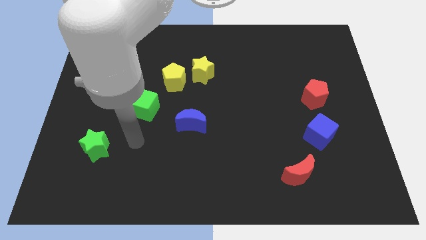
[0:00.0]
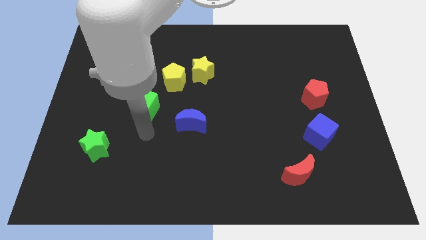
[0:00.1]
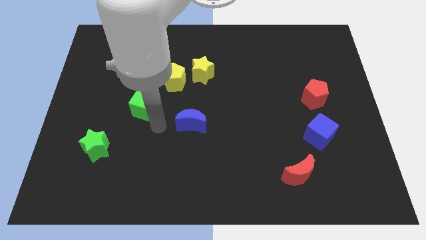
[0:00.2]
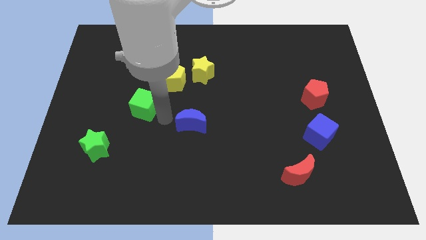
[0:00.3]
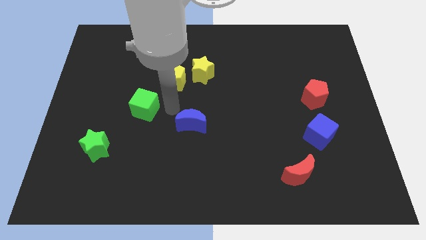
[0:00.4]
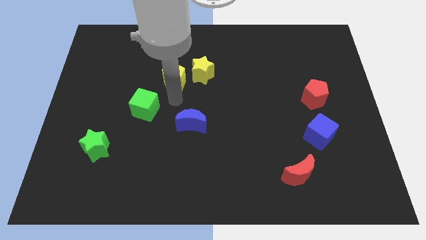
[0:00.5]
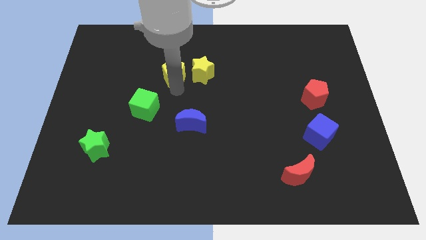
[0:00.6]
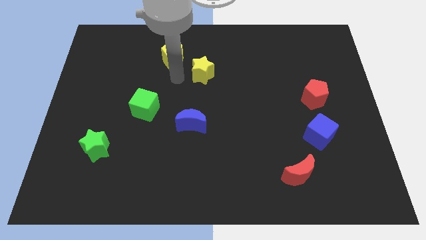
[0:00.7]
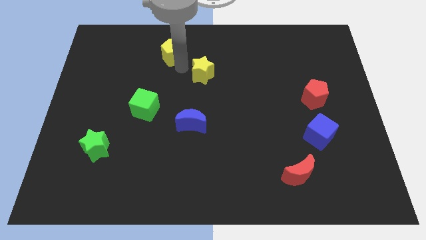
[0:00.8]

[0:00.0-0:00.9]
move the yellow star away from the yellow pentagon

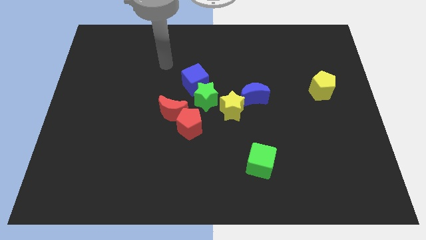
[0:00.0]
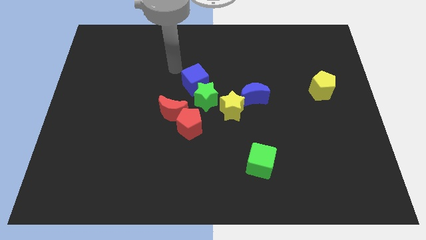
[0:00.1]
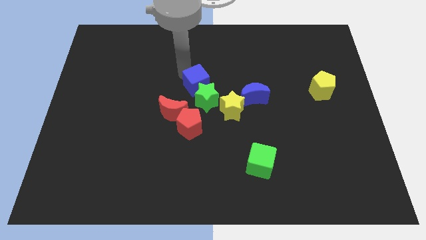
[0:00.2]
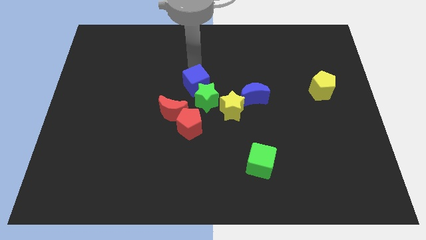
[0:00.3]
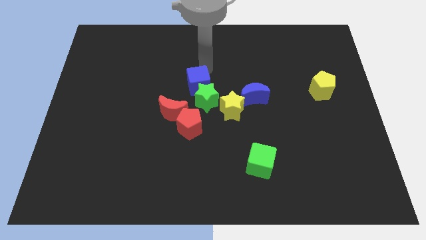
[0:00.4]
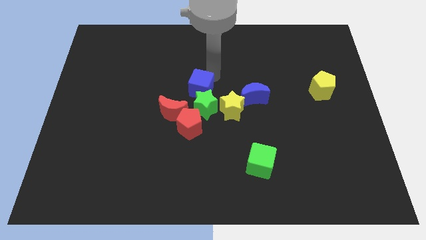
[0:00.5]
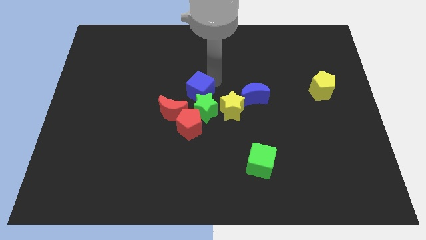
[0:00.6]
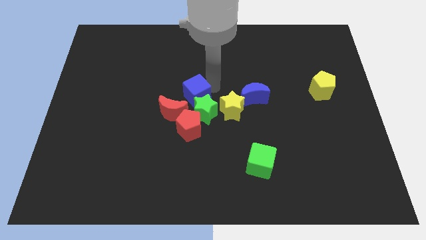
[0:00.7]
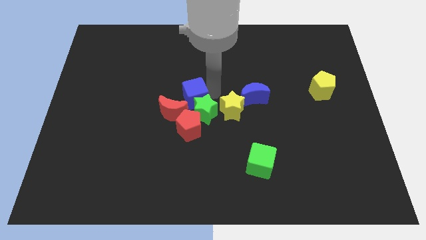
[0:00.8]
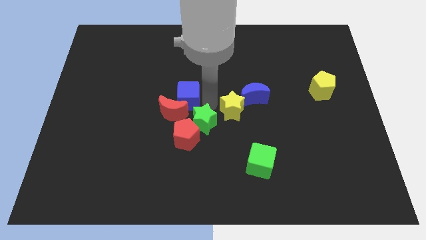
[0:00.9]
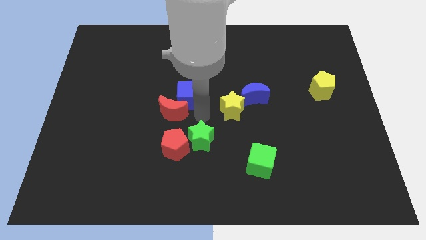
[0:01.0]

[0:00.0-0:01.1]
move the blue cube away from the green star

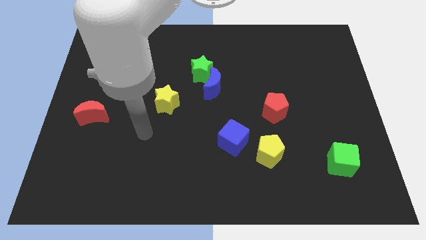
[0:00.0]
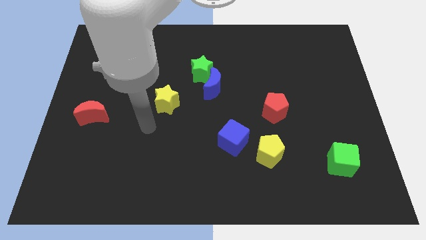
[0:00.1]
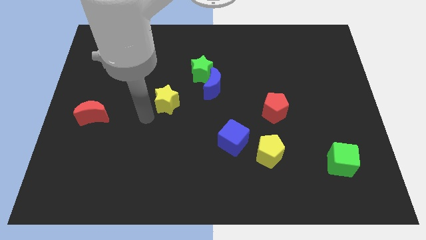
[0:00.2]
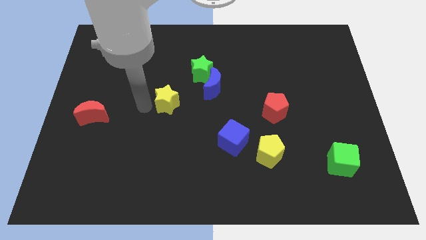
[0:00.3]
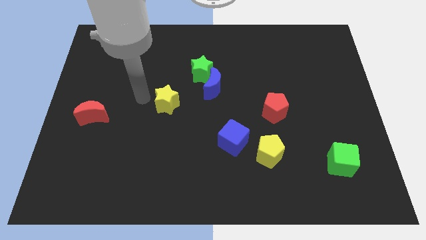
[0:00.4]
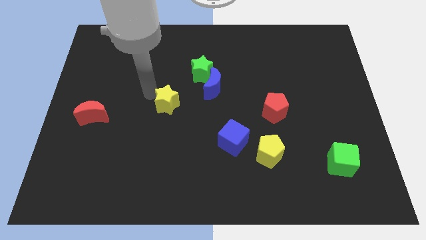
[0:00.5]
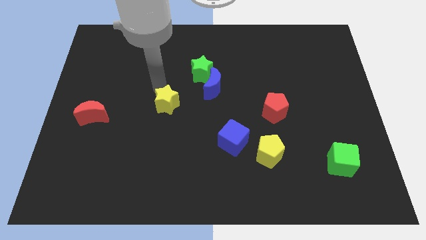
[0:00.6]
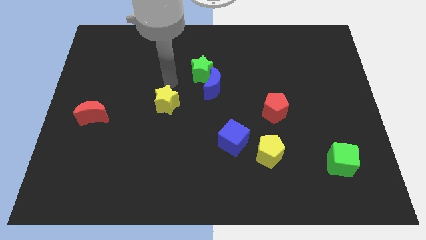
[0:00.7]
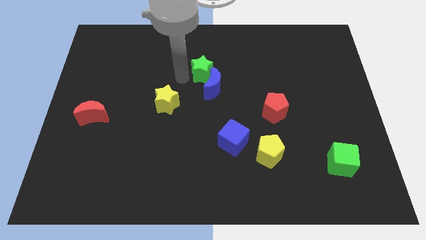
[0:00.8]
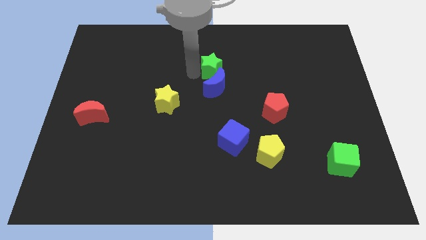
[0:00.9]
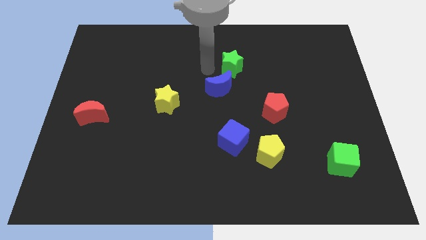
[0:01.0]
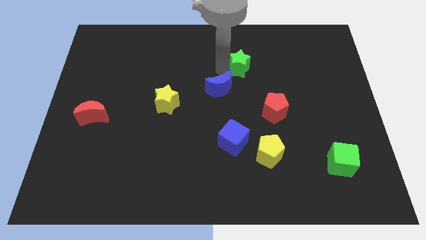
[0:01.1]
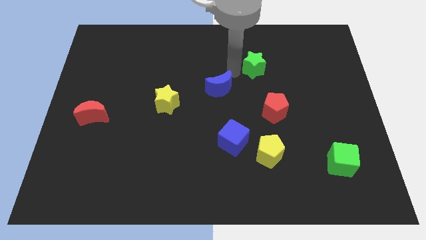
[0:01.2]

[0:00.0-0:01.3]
pull the blue moon apart from the green star

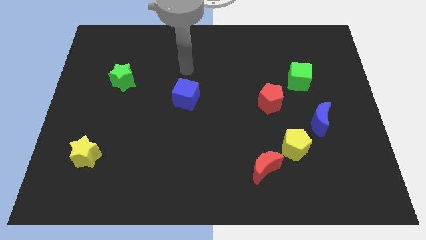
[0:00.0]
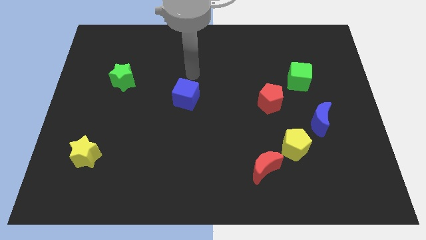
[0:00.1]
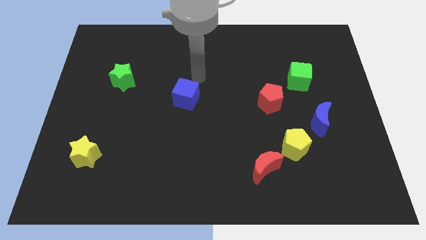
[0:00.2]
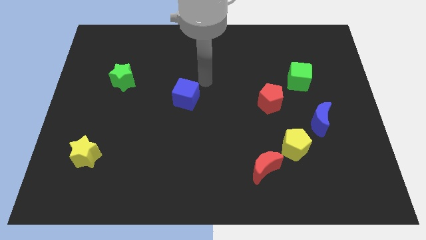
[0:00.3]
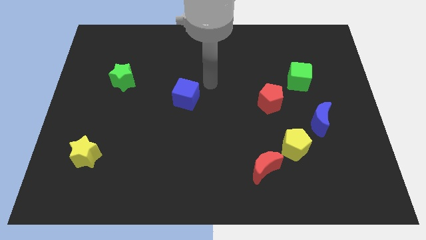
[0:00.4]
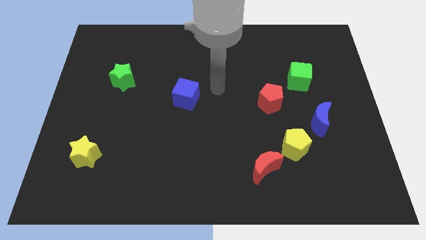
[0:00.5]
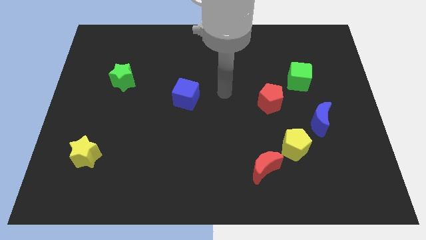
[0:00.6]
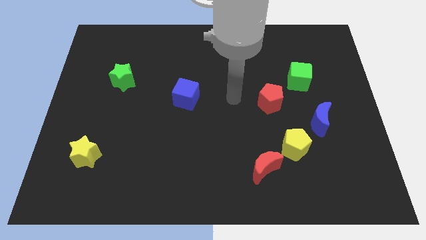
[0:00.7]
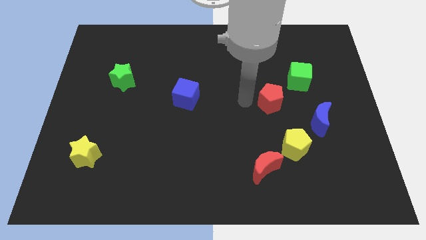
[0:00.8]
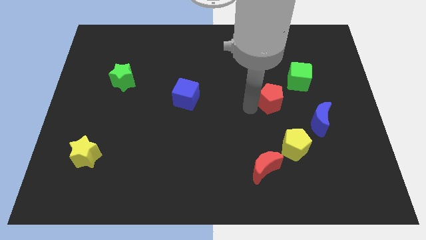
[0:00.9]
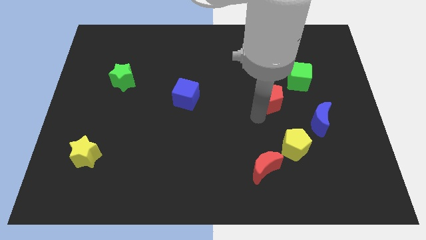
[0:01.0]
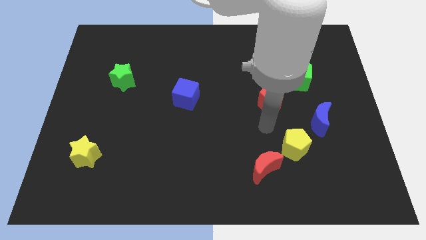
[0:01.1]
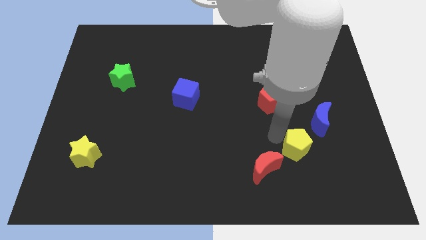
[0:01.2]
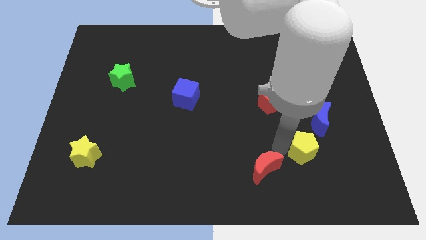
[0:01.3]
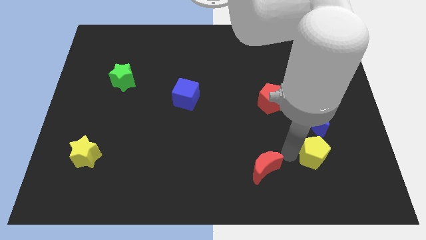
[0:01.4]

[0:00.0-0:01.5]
pull the red moon apart from the yellow pentagon

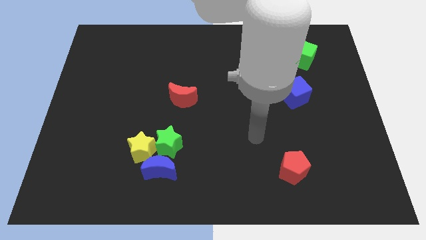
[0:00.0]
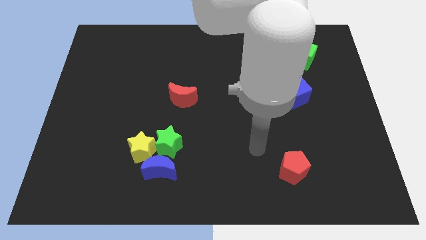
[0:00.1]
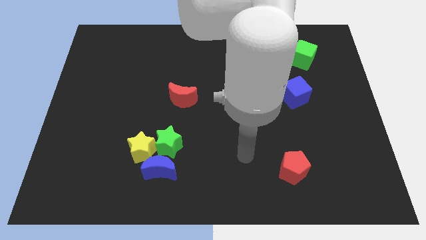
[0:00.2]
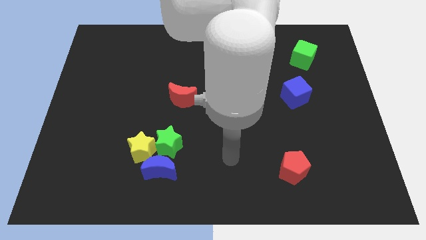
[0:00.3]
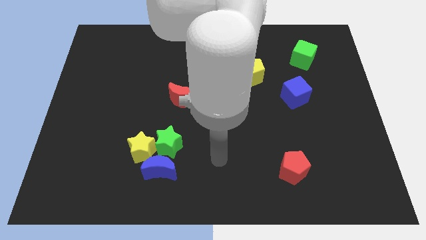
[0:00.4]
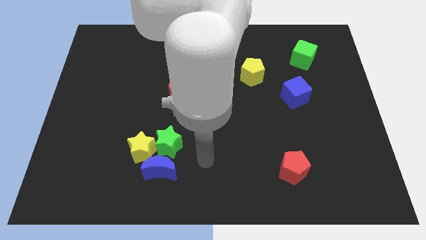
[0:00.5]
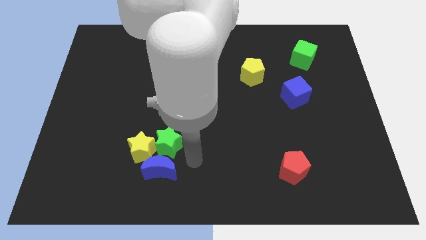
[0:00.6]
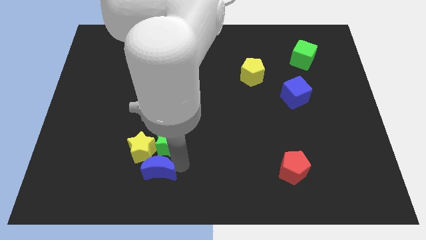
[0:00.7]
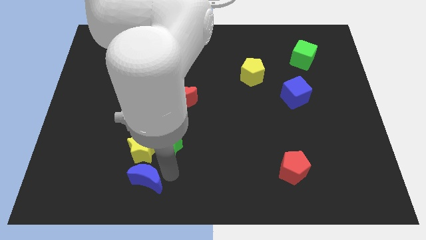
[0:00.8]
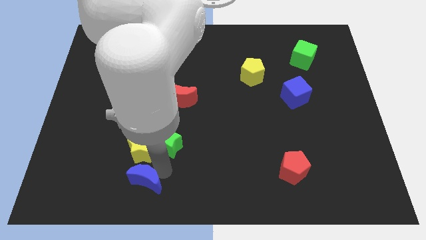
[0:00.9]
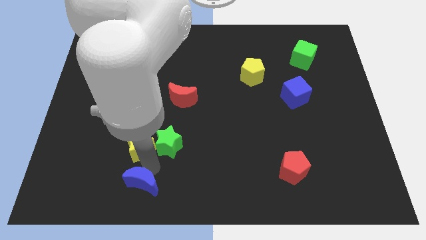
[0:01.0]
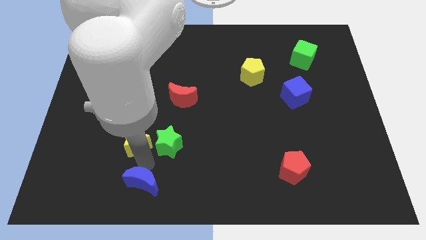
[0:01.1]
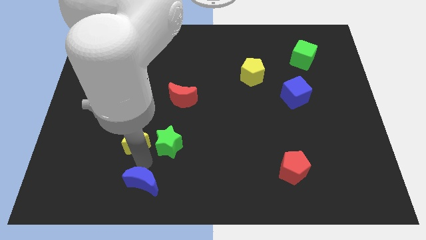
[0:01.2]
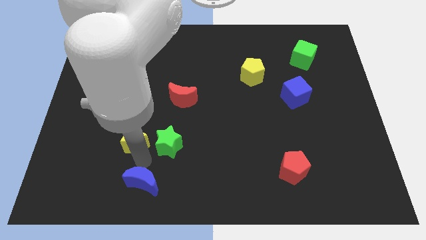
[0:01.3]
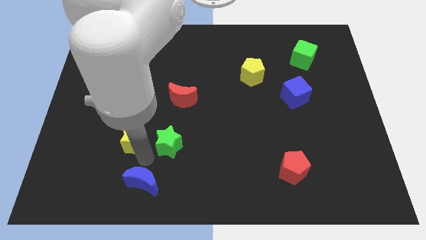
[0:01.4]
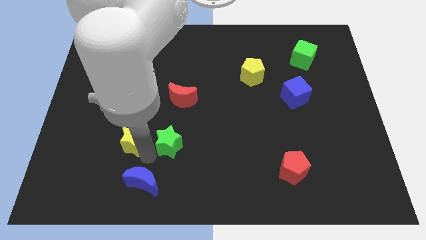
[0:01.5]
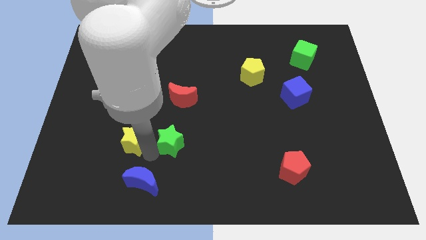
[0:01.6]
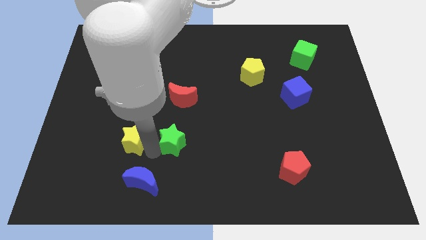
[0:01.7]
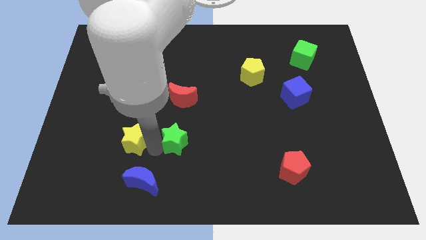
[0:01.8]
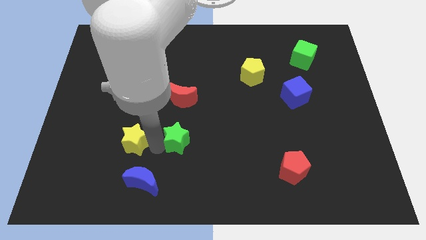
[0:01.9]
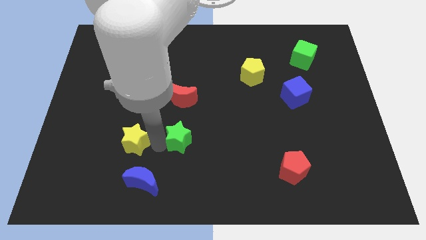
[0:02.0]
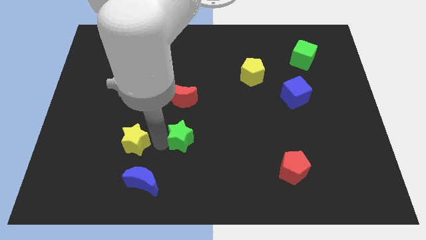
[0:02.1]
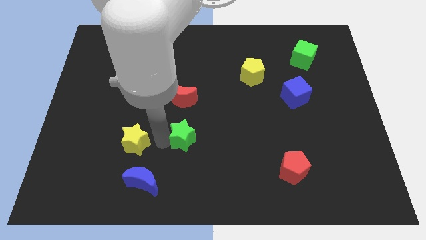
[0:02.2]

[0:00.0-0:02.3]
separate the green star from the yellow star and blue moon

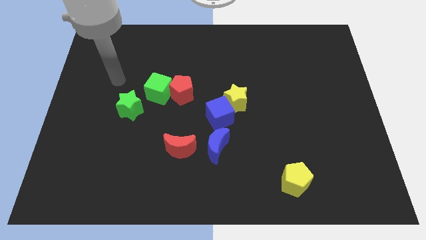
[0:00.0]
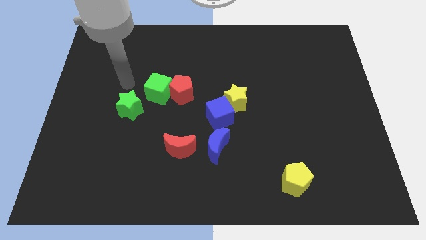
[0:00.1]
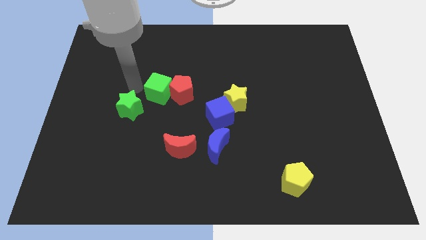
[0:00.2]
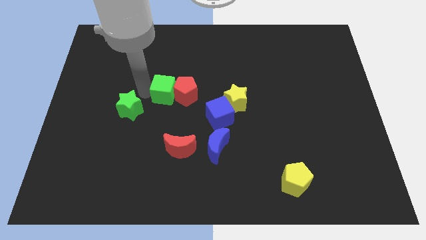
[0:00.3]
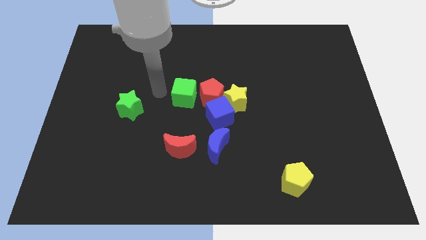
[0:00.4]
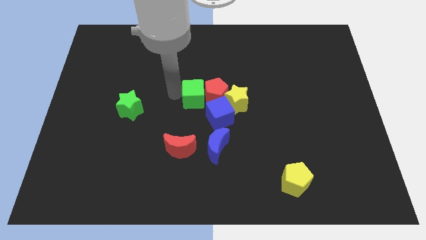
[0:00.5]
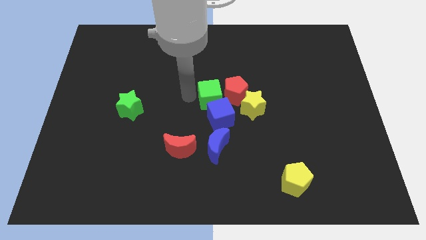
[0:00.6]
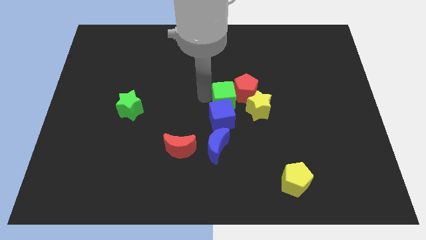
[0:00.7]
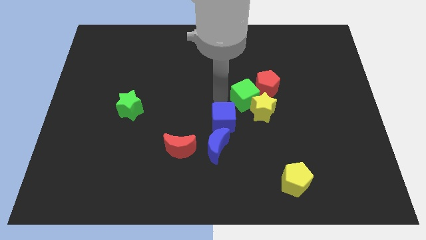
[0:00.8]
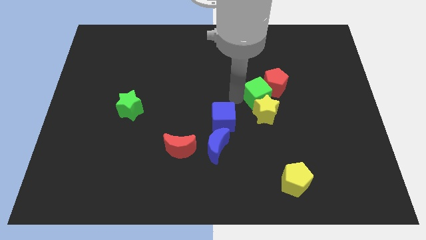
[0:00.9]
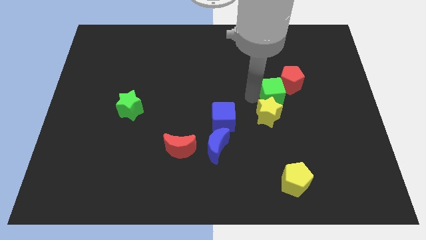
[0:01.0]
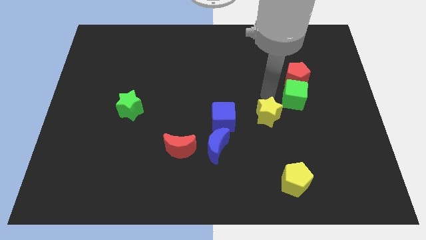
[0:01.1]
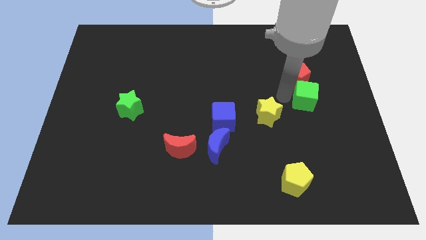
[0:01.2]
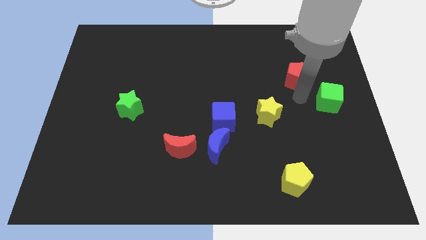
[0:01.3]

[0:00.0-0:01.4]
move the red pentagon away from the green cube

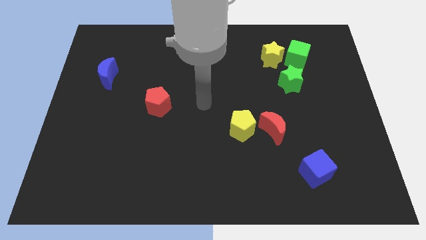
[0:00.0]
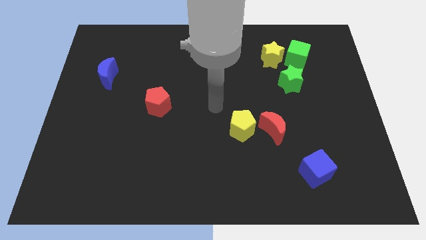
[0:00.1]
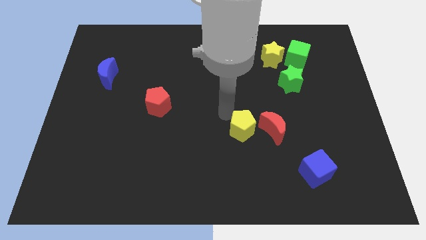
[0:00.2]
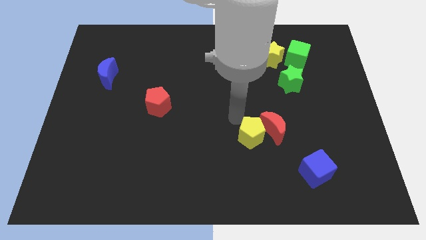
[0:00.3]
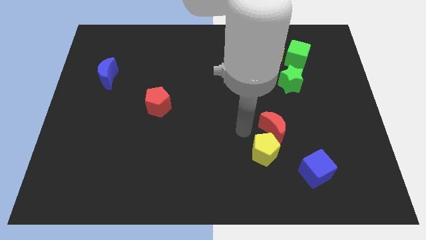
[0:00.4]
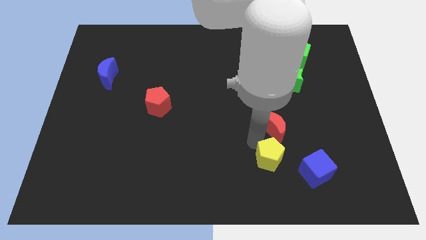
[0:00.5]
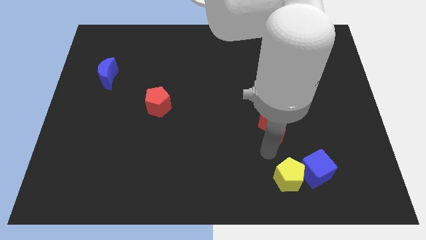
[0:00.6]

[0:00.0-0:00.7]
separate the red moon from the yellow pentagon

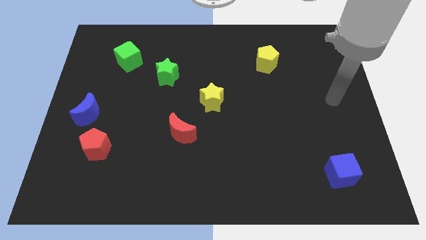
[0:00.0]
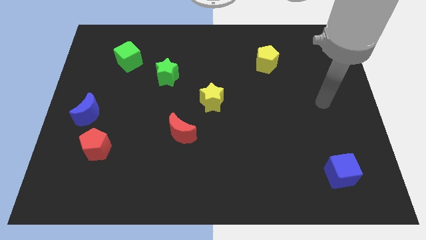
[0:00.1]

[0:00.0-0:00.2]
pull the red pentagon apart from the blue moon

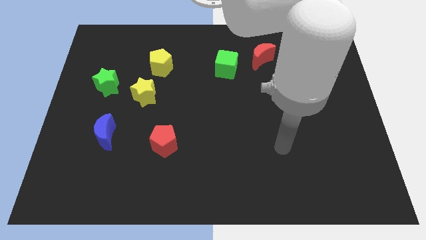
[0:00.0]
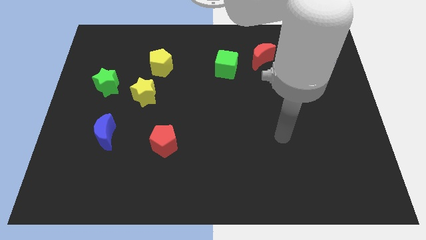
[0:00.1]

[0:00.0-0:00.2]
pull the red moon apart from the green cube
